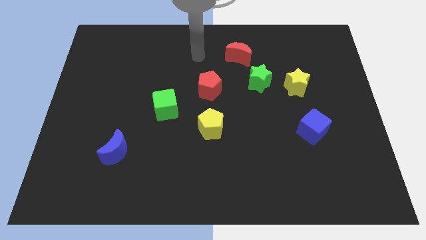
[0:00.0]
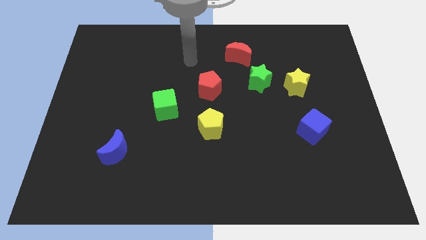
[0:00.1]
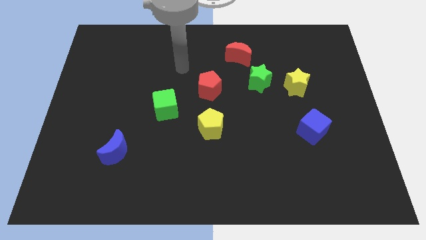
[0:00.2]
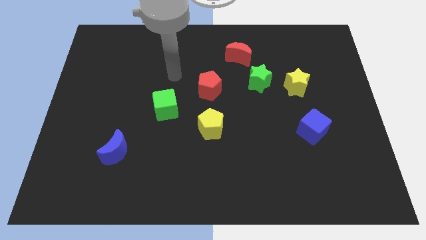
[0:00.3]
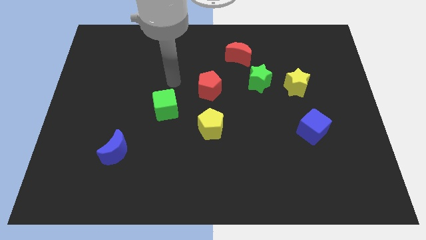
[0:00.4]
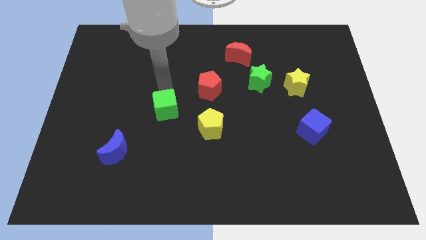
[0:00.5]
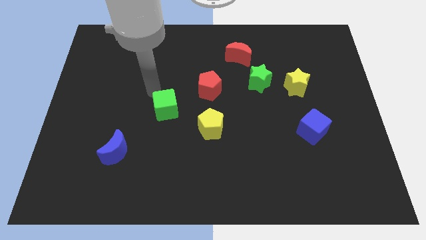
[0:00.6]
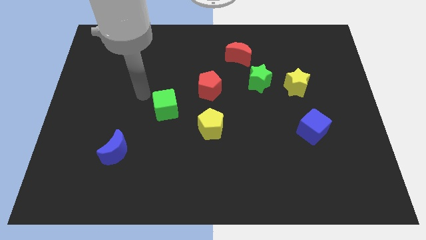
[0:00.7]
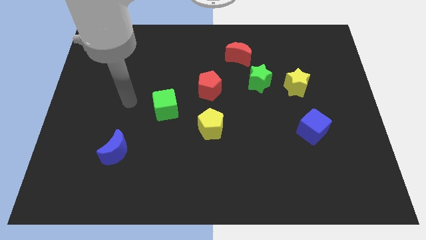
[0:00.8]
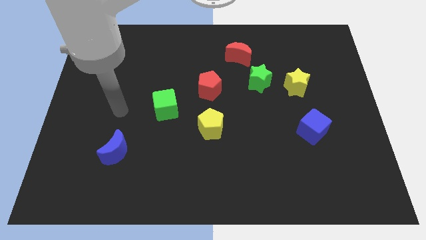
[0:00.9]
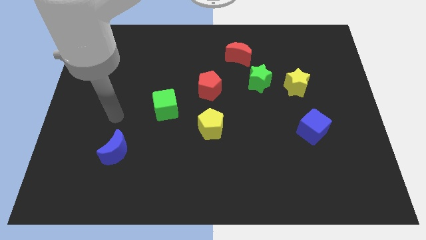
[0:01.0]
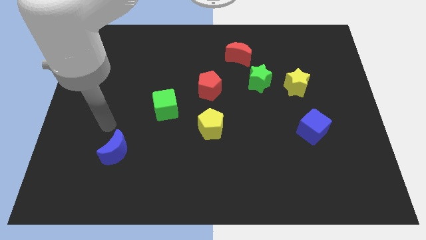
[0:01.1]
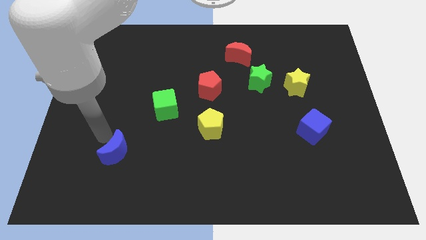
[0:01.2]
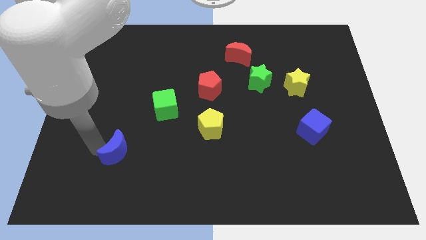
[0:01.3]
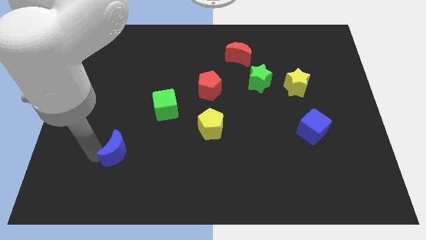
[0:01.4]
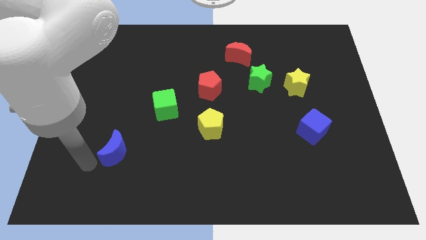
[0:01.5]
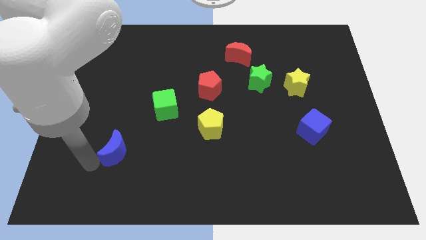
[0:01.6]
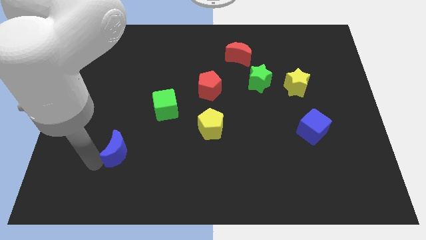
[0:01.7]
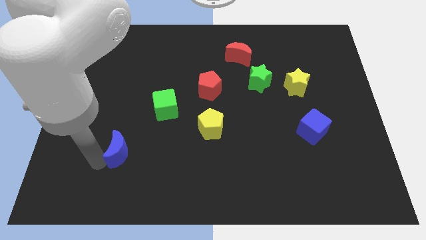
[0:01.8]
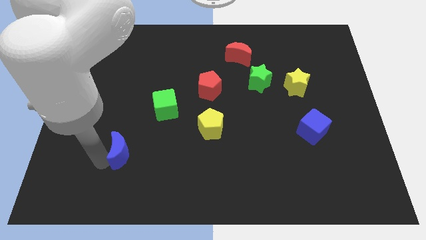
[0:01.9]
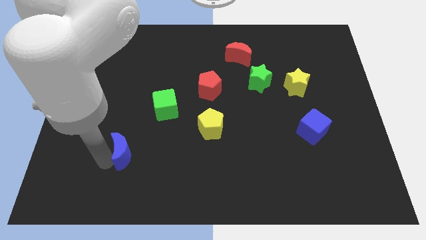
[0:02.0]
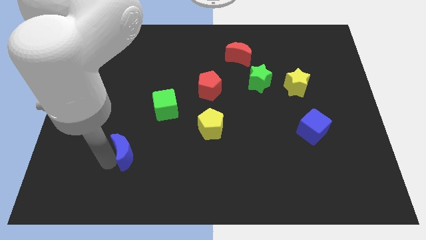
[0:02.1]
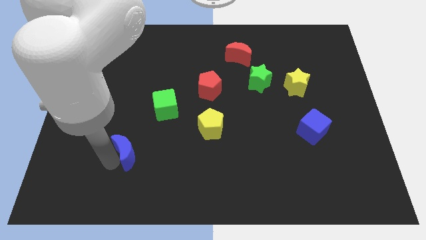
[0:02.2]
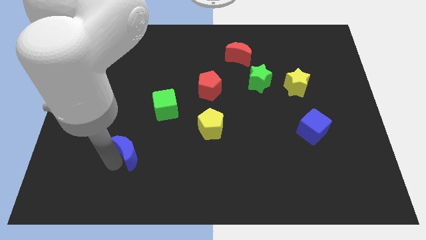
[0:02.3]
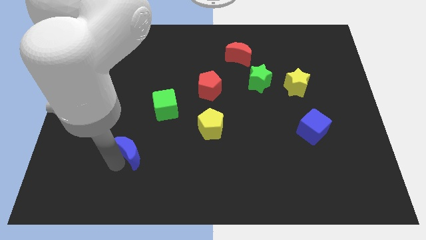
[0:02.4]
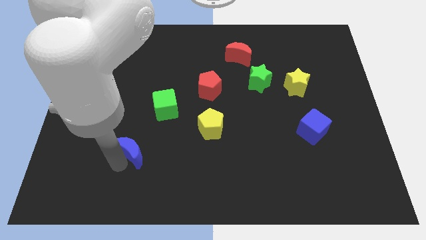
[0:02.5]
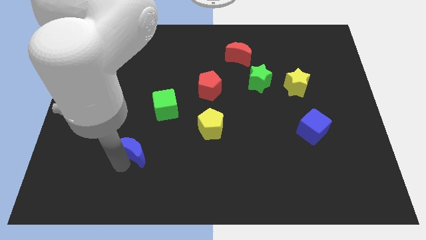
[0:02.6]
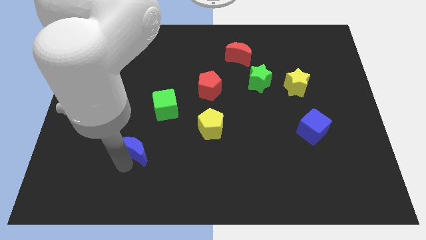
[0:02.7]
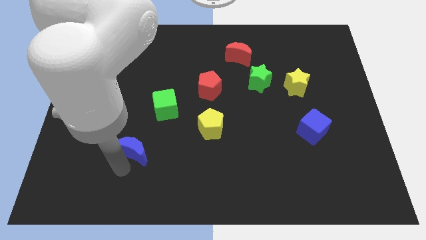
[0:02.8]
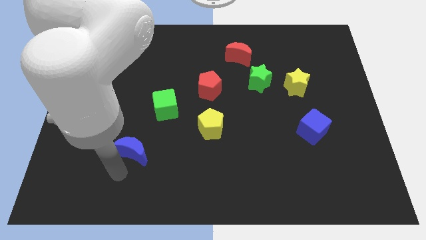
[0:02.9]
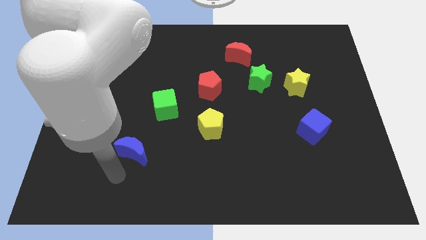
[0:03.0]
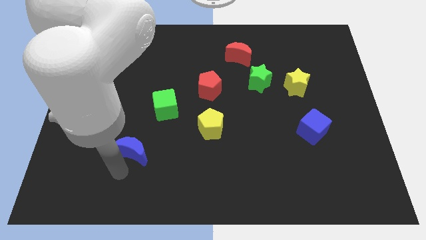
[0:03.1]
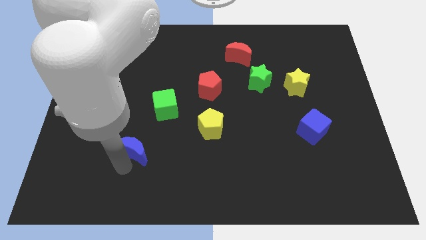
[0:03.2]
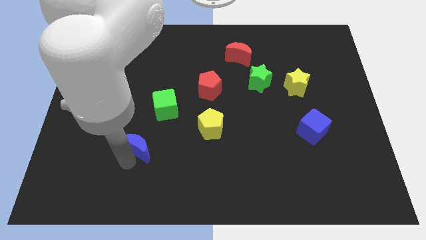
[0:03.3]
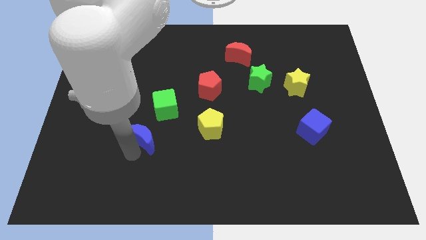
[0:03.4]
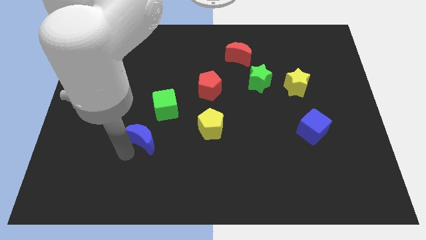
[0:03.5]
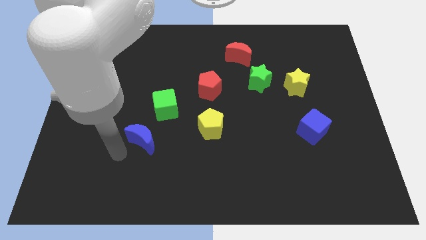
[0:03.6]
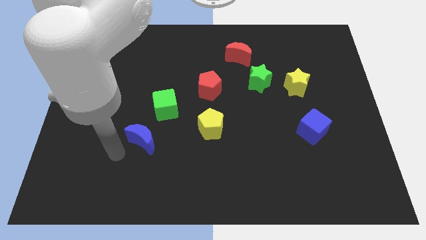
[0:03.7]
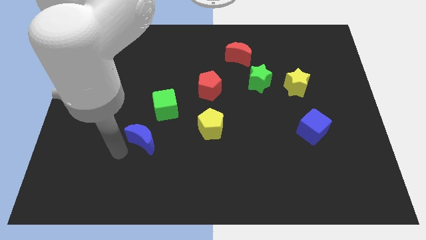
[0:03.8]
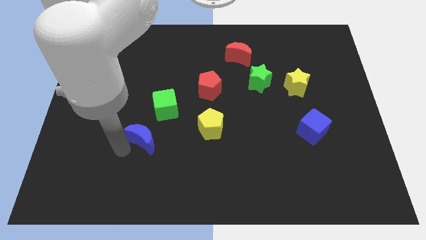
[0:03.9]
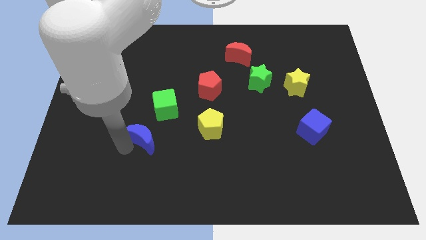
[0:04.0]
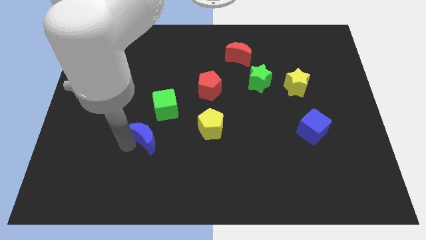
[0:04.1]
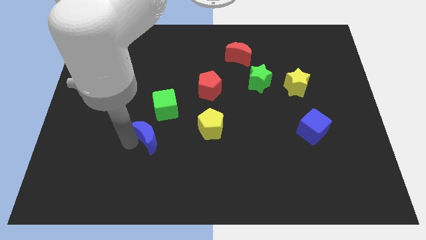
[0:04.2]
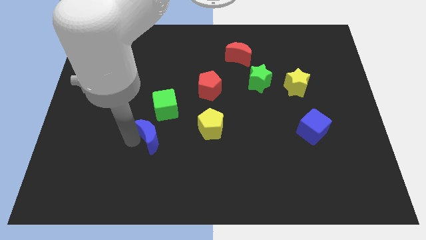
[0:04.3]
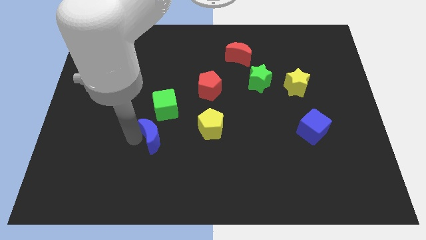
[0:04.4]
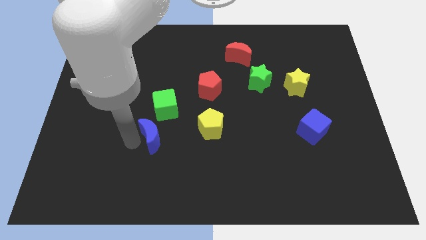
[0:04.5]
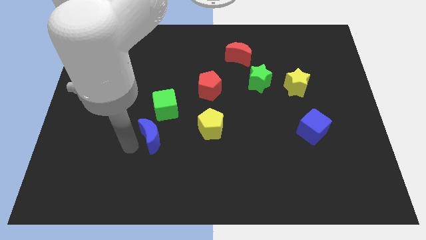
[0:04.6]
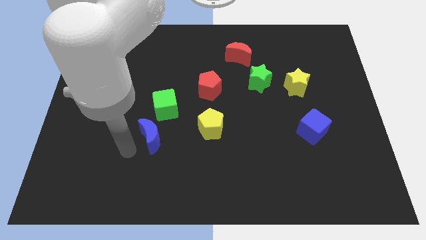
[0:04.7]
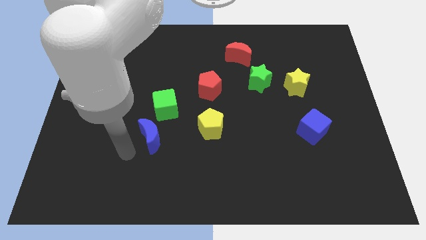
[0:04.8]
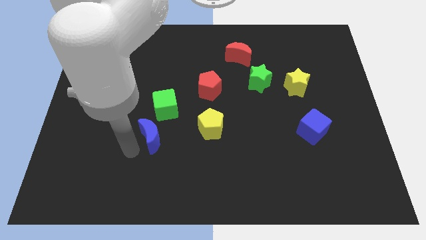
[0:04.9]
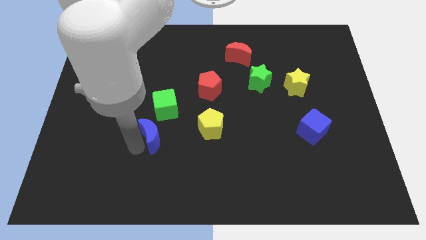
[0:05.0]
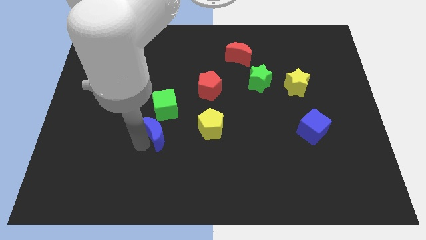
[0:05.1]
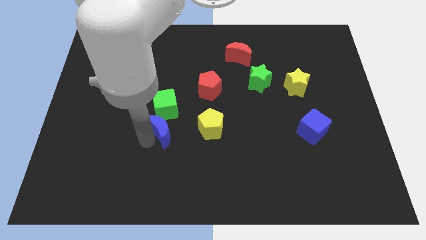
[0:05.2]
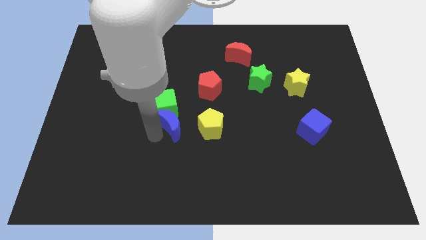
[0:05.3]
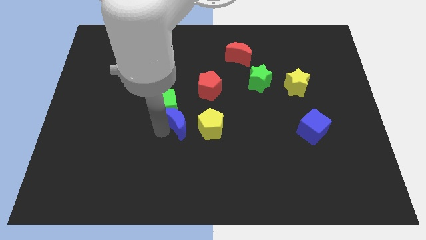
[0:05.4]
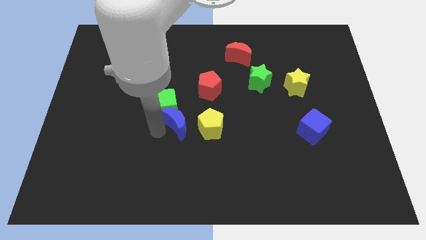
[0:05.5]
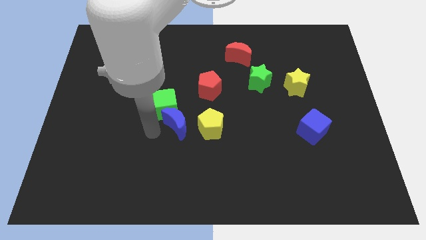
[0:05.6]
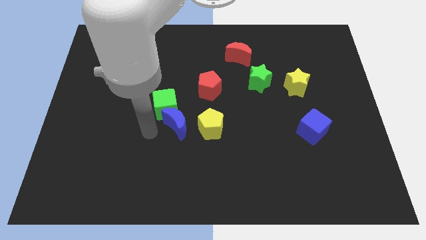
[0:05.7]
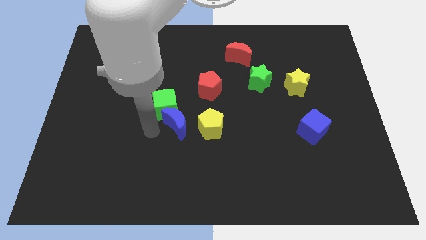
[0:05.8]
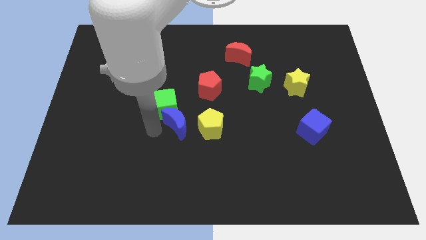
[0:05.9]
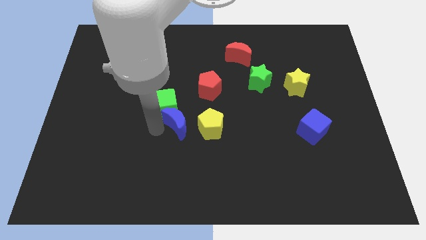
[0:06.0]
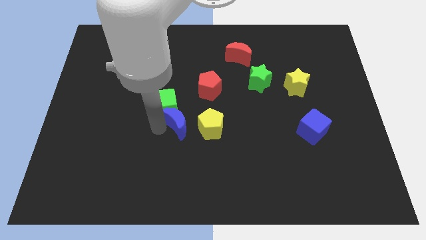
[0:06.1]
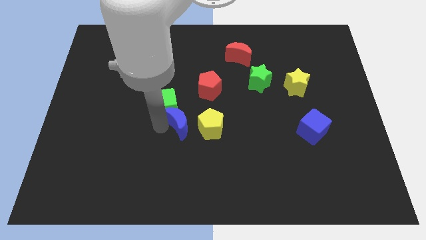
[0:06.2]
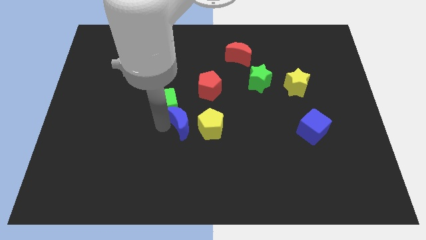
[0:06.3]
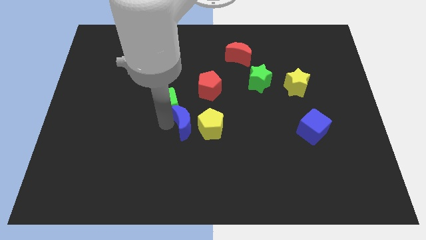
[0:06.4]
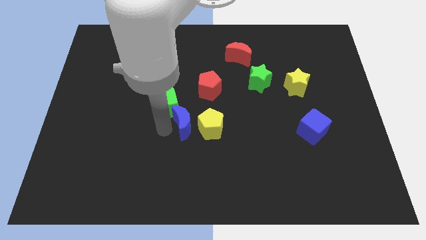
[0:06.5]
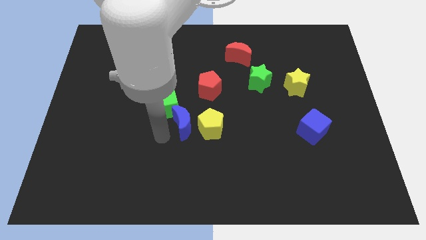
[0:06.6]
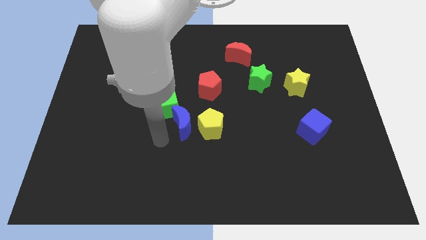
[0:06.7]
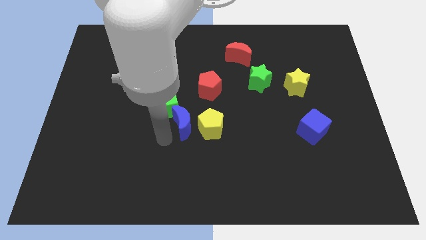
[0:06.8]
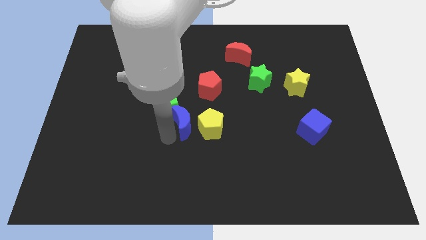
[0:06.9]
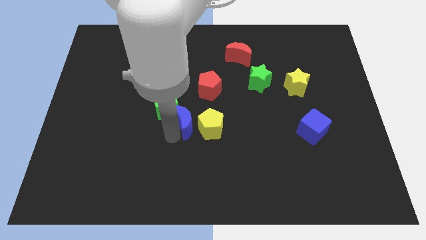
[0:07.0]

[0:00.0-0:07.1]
push the blue moon to the right side of the green cube

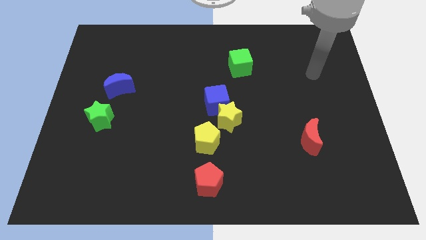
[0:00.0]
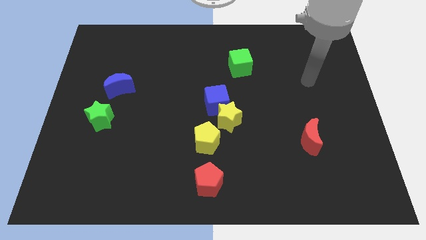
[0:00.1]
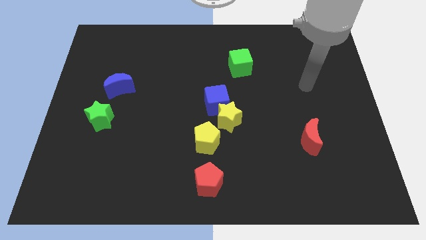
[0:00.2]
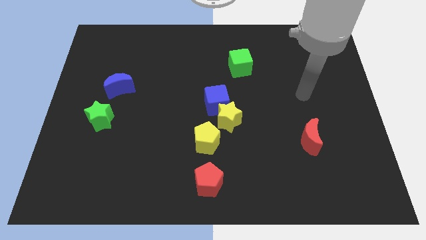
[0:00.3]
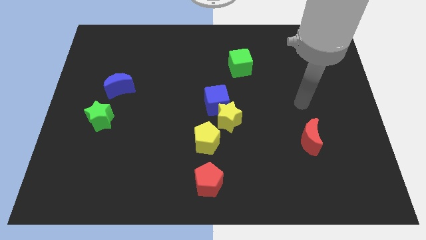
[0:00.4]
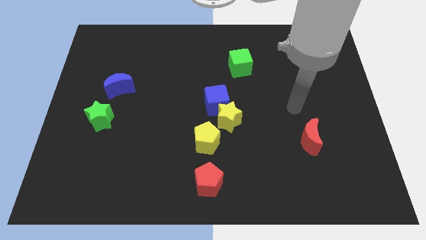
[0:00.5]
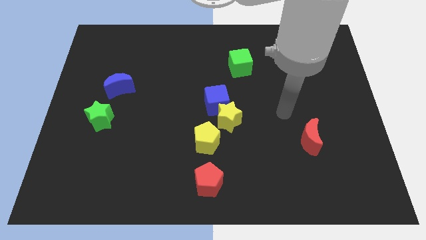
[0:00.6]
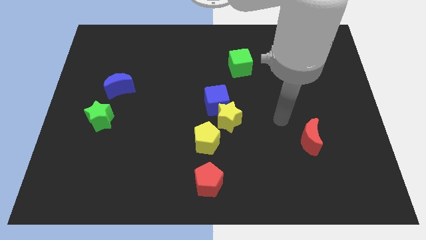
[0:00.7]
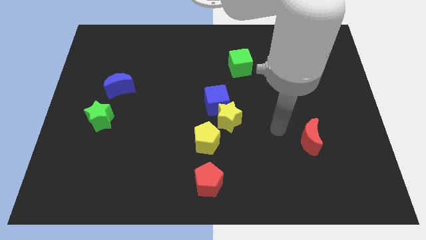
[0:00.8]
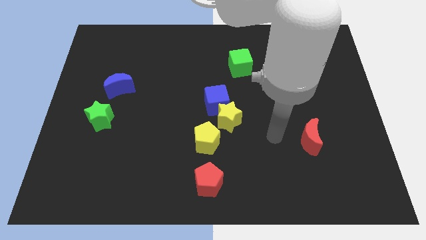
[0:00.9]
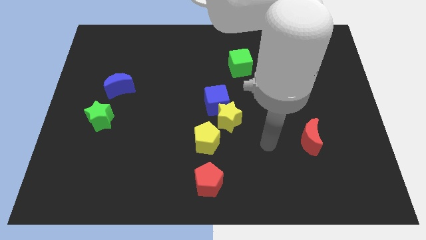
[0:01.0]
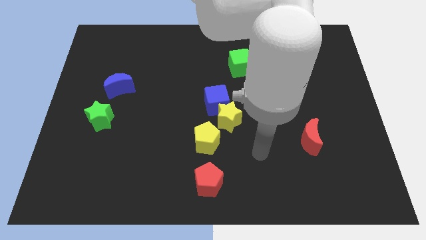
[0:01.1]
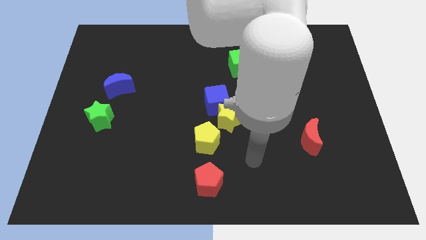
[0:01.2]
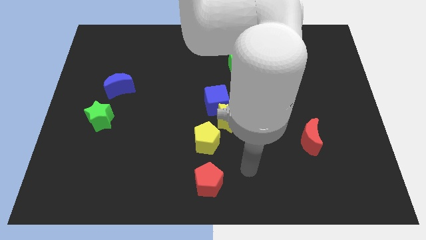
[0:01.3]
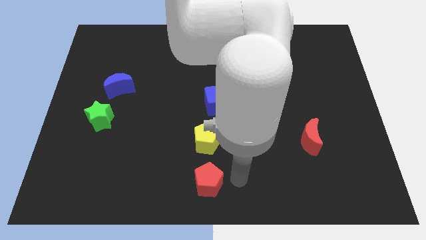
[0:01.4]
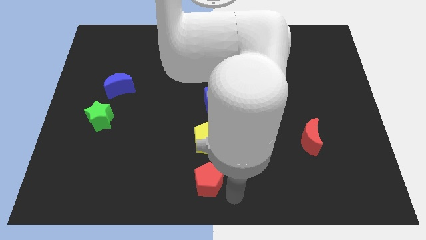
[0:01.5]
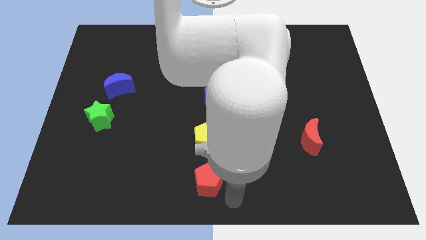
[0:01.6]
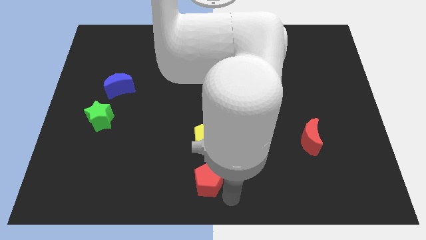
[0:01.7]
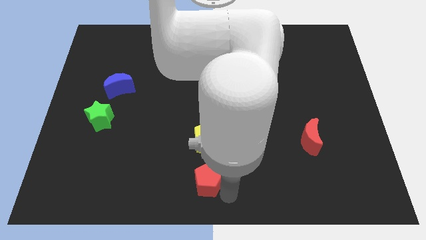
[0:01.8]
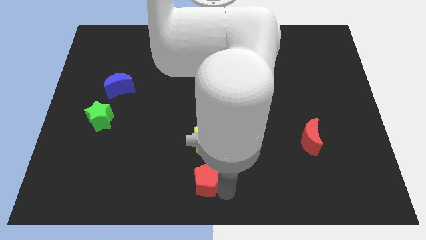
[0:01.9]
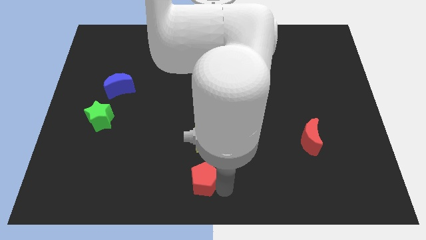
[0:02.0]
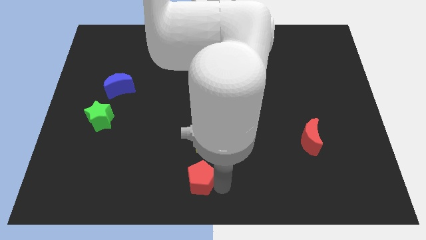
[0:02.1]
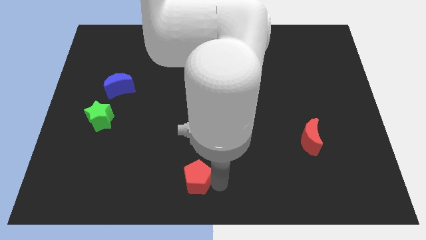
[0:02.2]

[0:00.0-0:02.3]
move the red pentagon diagonally down and to the left of the yellow pentagon
